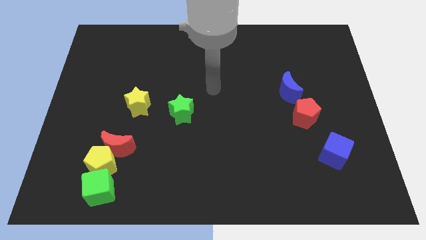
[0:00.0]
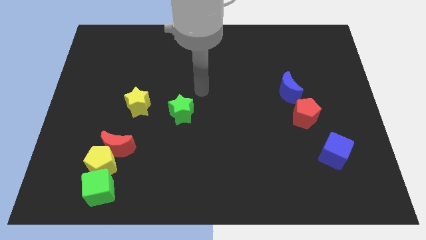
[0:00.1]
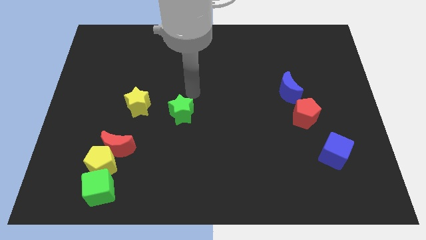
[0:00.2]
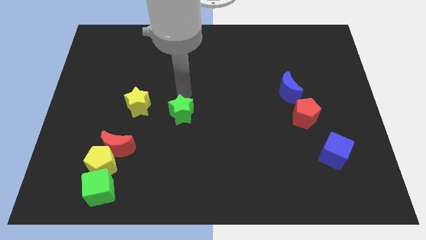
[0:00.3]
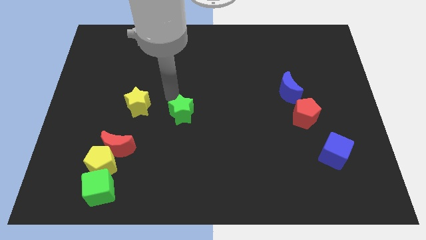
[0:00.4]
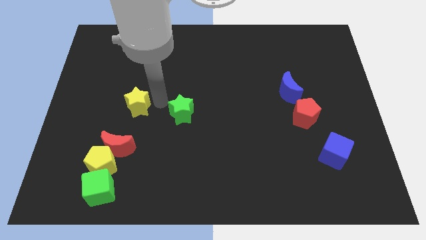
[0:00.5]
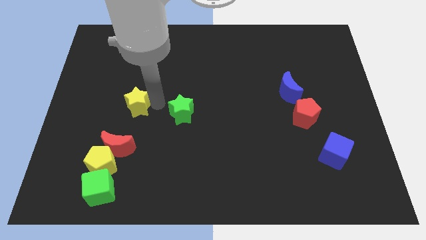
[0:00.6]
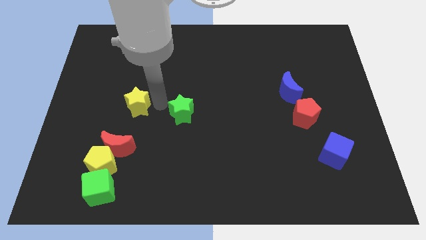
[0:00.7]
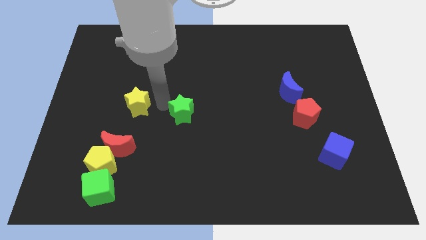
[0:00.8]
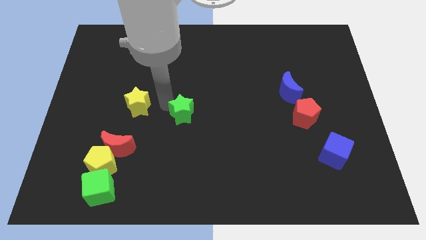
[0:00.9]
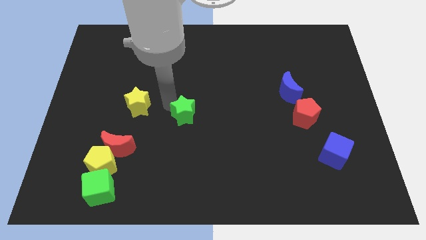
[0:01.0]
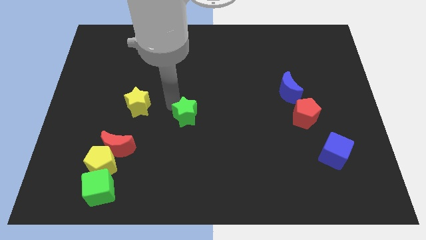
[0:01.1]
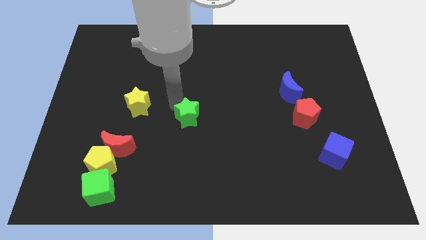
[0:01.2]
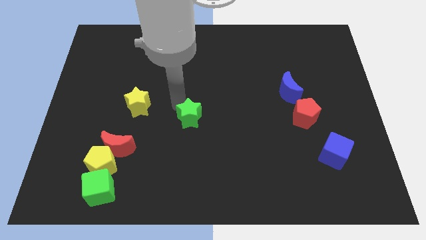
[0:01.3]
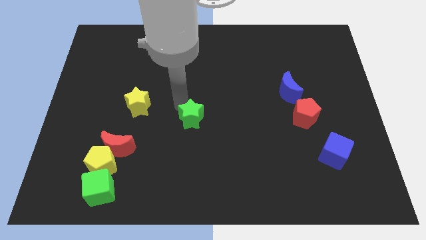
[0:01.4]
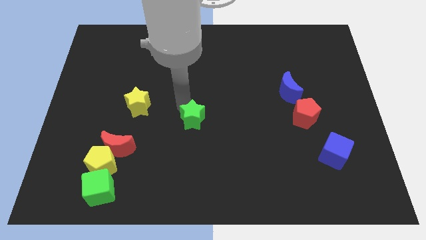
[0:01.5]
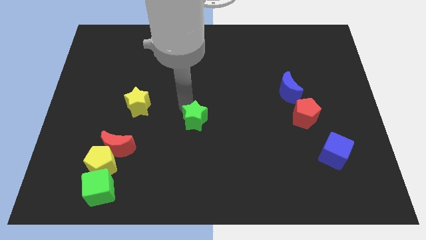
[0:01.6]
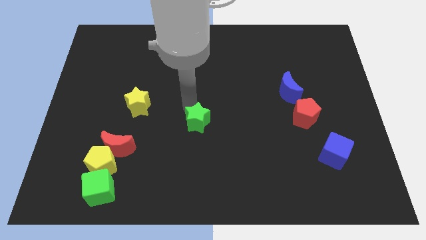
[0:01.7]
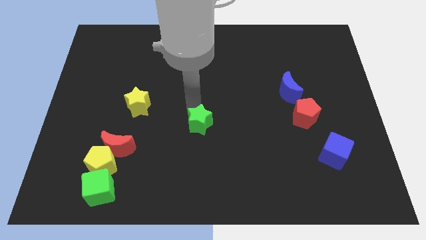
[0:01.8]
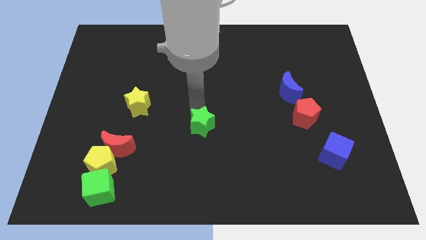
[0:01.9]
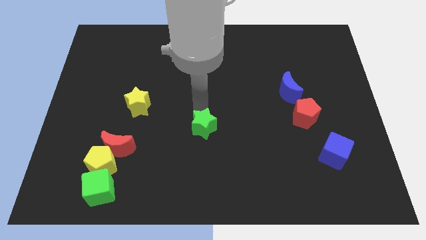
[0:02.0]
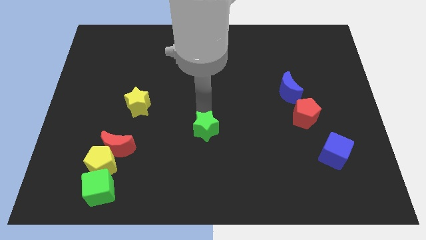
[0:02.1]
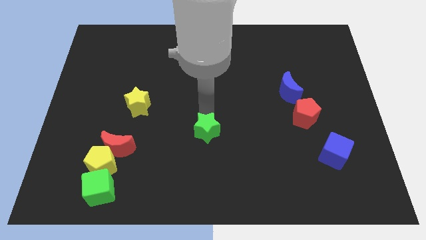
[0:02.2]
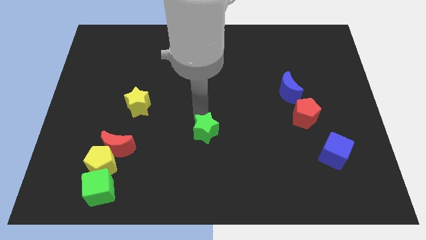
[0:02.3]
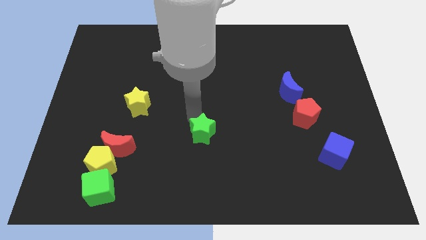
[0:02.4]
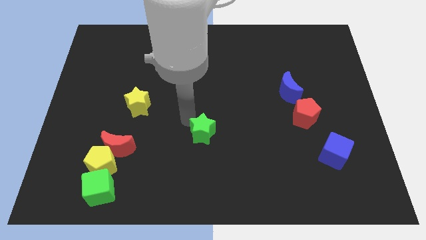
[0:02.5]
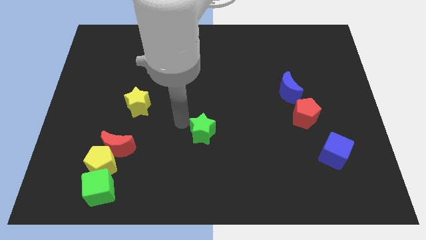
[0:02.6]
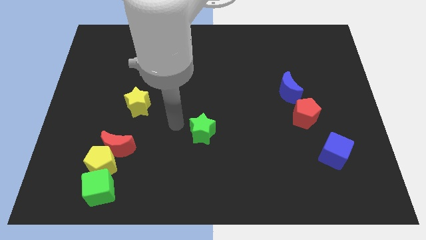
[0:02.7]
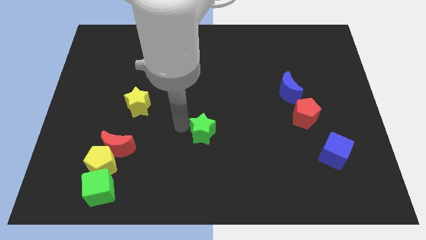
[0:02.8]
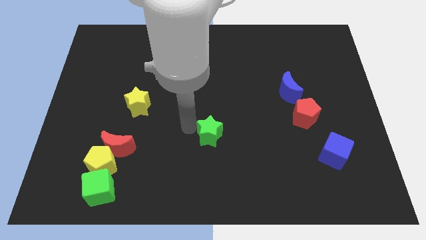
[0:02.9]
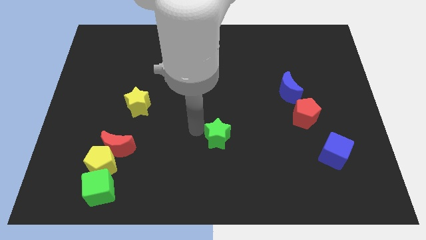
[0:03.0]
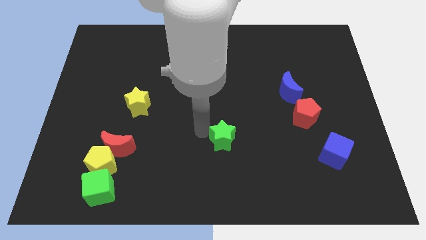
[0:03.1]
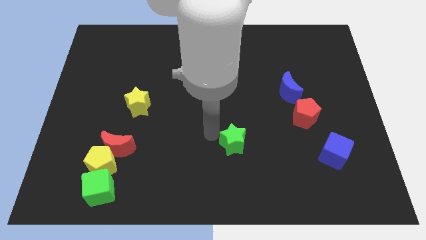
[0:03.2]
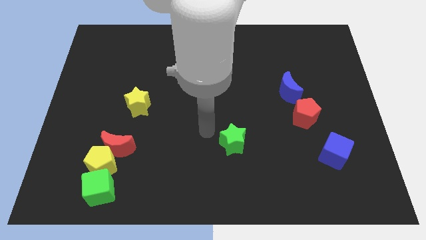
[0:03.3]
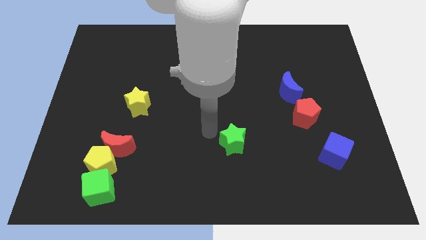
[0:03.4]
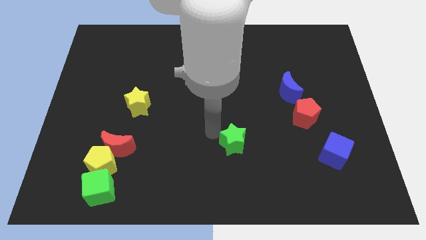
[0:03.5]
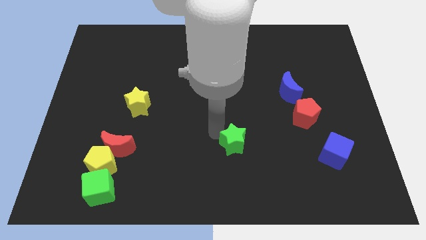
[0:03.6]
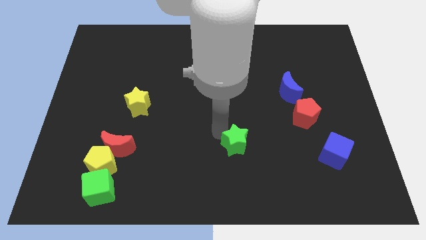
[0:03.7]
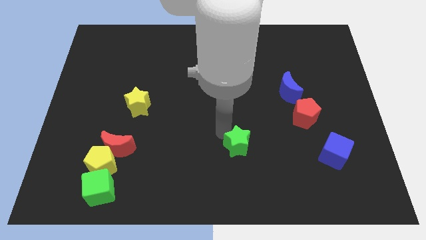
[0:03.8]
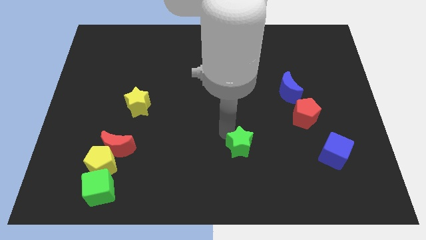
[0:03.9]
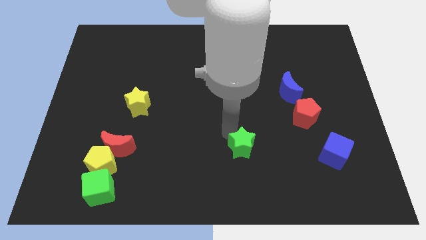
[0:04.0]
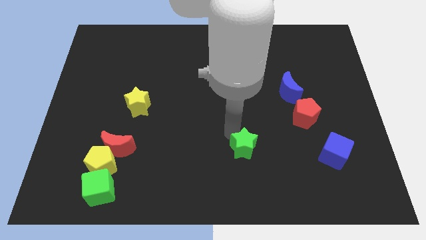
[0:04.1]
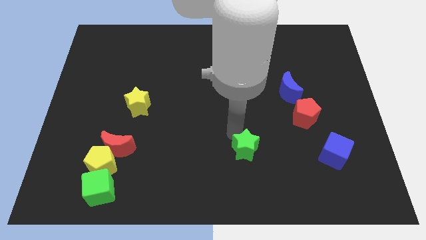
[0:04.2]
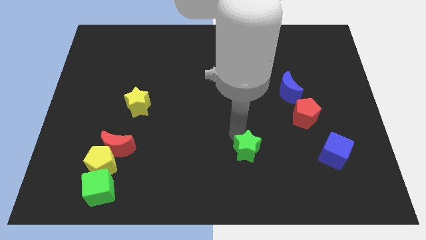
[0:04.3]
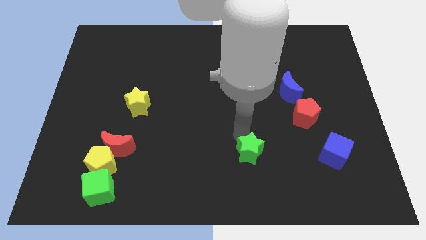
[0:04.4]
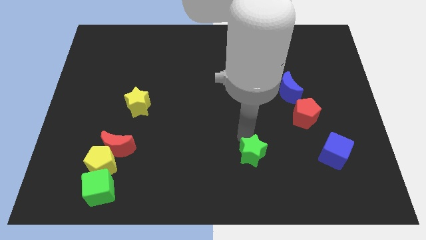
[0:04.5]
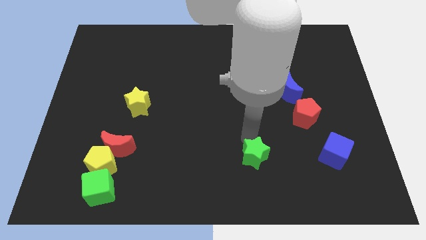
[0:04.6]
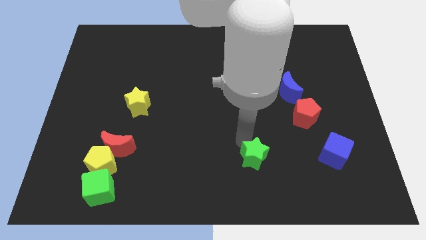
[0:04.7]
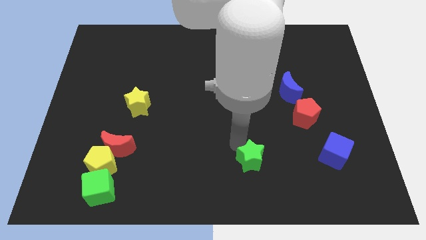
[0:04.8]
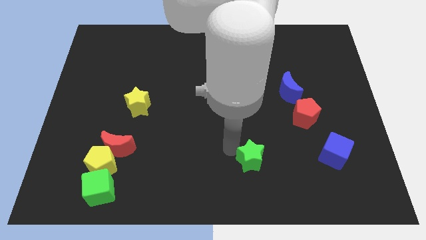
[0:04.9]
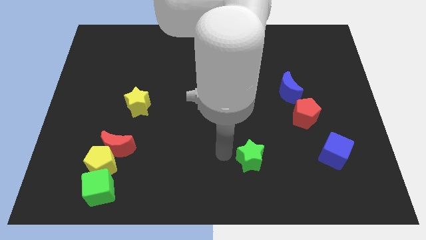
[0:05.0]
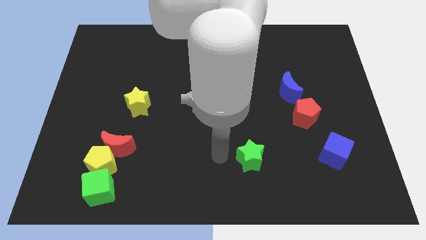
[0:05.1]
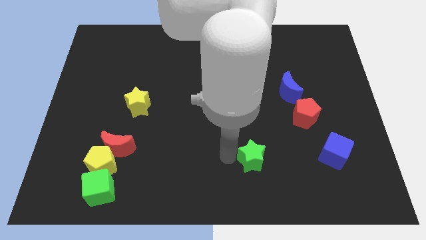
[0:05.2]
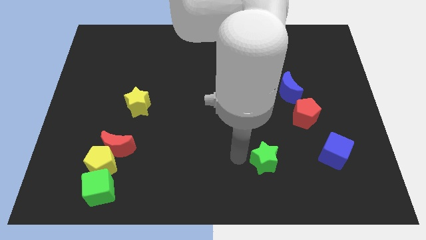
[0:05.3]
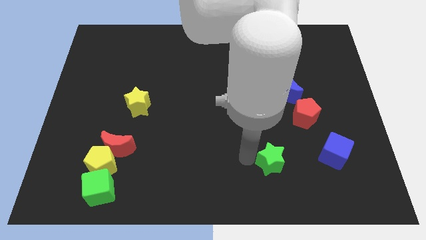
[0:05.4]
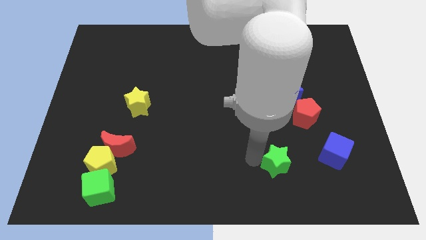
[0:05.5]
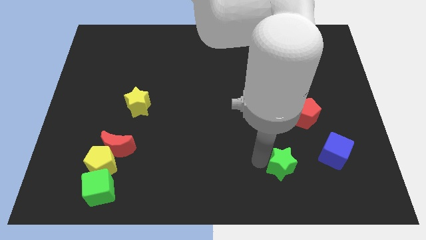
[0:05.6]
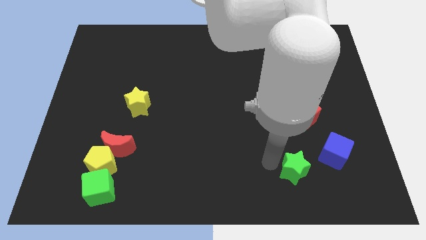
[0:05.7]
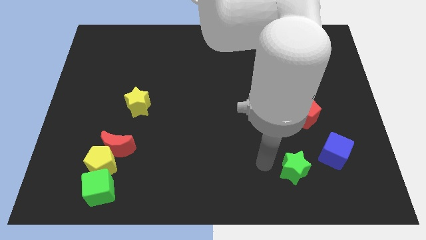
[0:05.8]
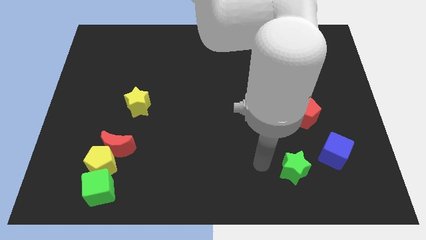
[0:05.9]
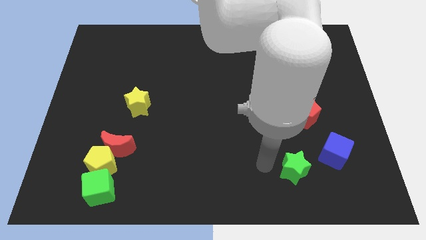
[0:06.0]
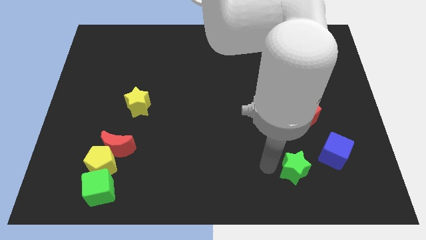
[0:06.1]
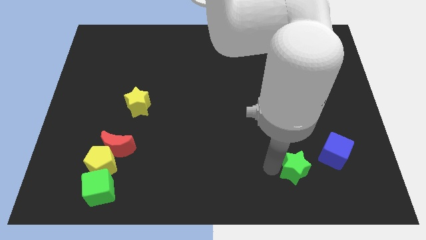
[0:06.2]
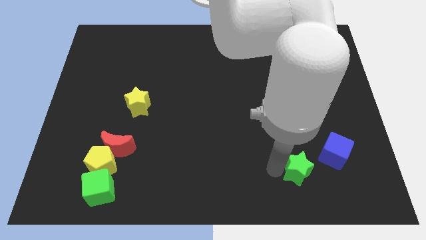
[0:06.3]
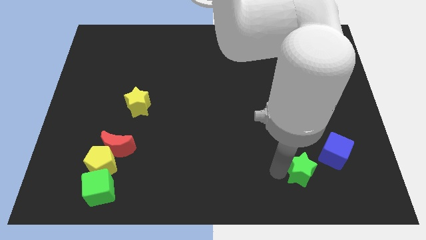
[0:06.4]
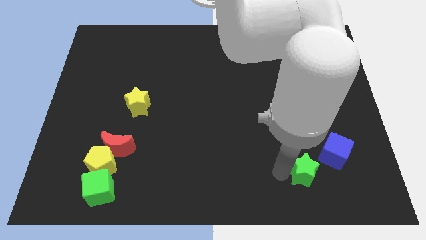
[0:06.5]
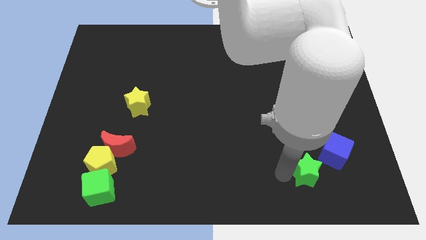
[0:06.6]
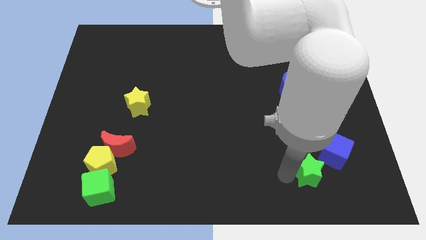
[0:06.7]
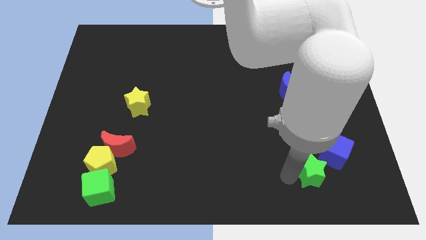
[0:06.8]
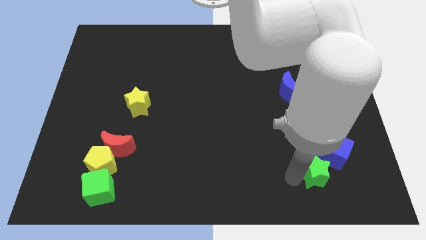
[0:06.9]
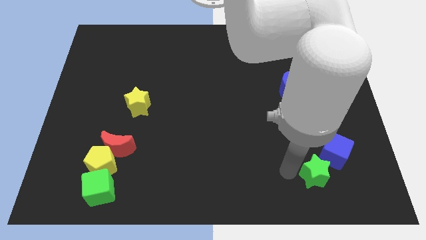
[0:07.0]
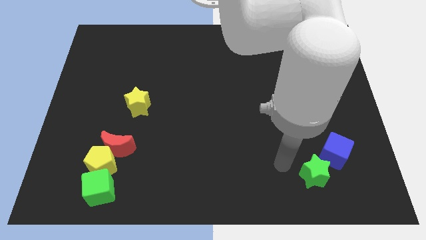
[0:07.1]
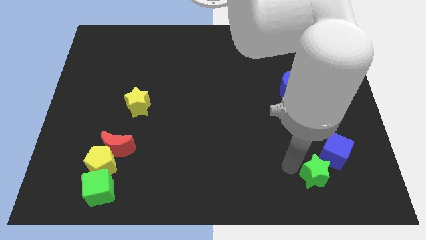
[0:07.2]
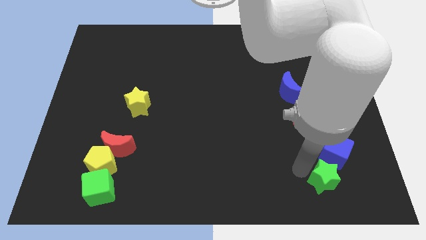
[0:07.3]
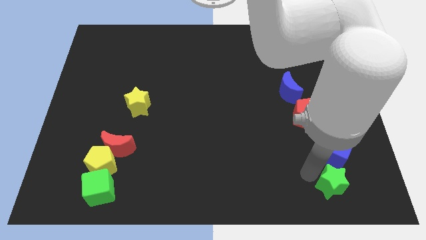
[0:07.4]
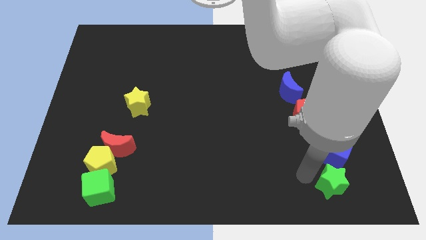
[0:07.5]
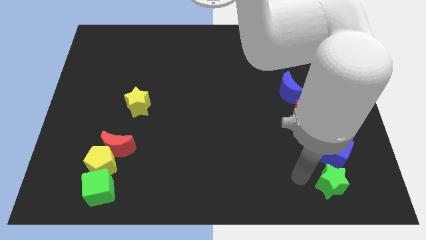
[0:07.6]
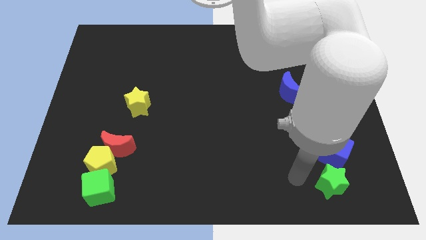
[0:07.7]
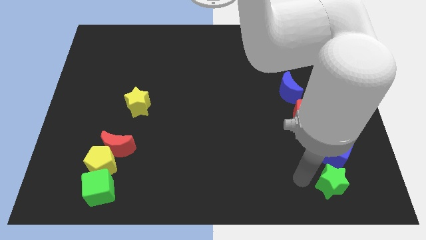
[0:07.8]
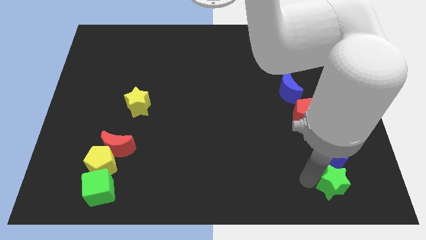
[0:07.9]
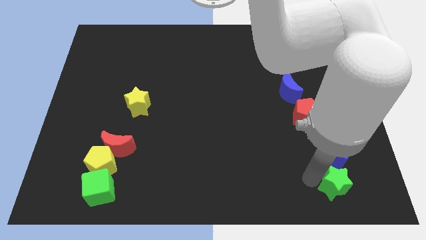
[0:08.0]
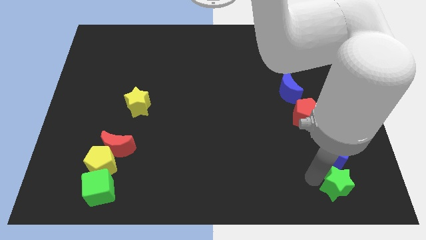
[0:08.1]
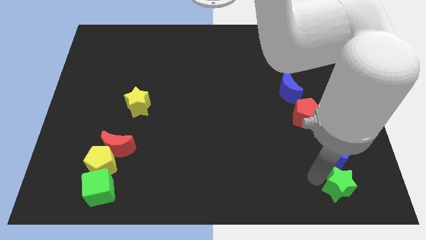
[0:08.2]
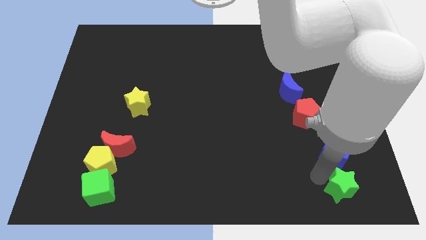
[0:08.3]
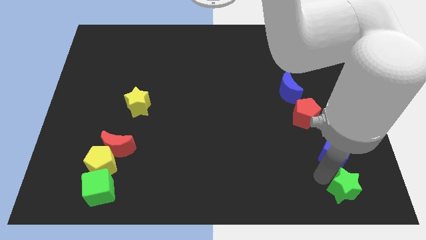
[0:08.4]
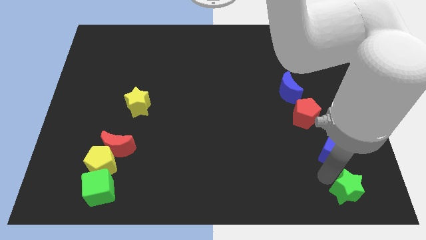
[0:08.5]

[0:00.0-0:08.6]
slide the green star to the lower right corner
